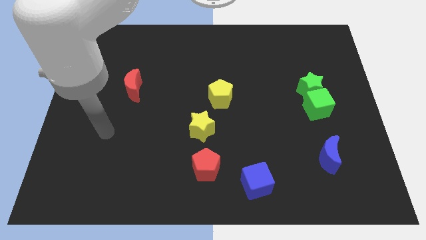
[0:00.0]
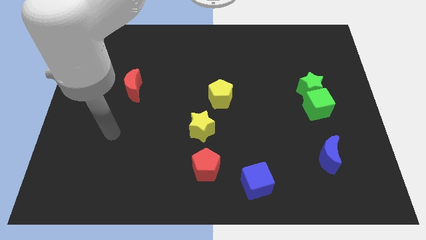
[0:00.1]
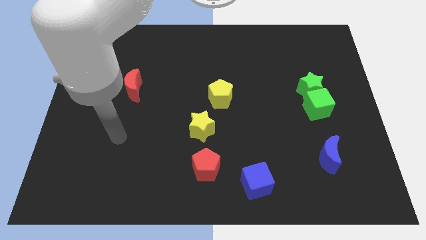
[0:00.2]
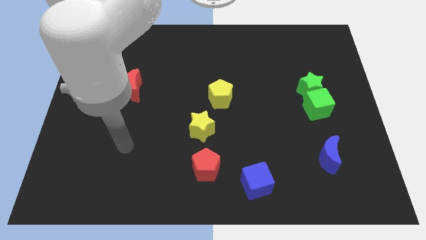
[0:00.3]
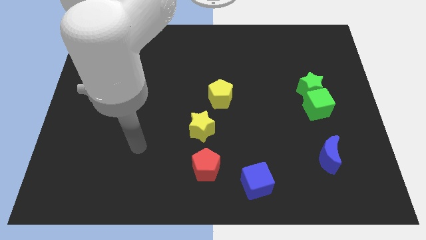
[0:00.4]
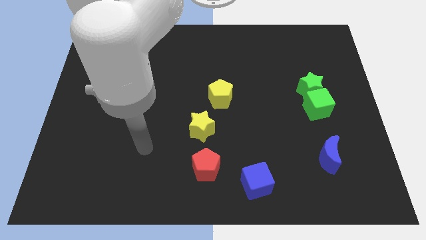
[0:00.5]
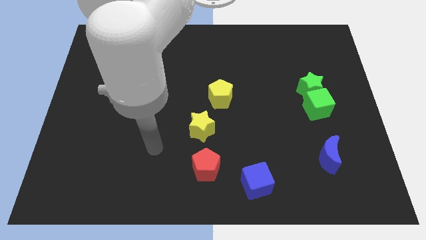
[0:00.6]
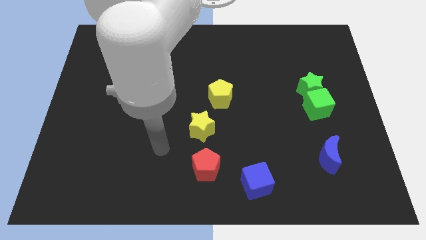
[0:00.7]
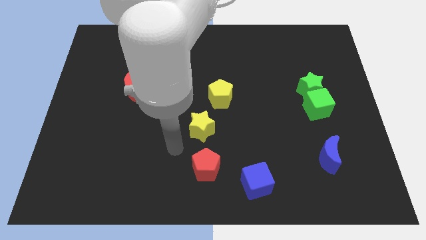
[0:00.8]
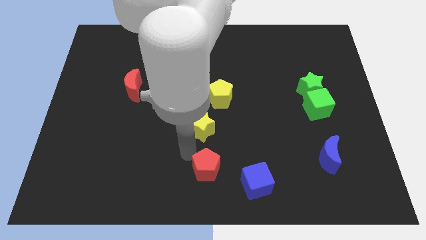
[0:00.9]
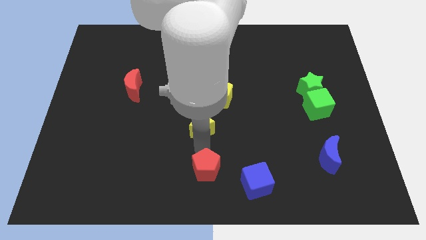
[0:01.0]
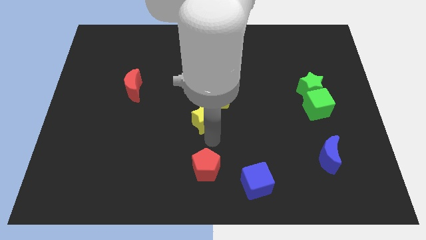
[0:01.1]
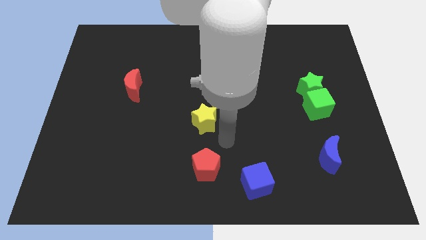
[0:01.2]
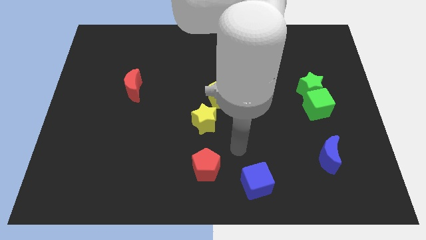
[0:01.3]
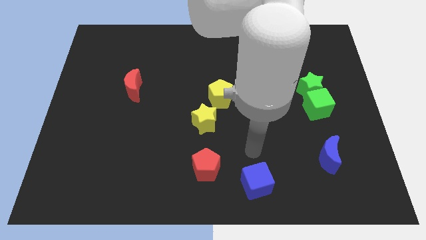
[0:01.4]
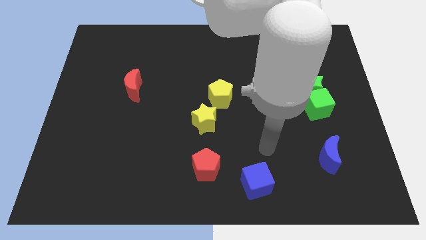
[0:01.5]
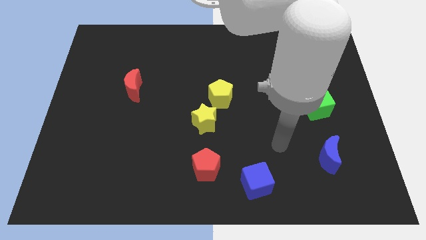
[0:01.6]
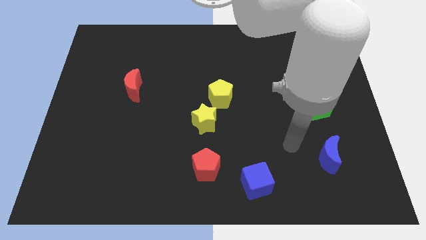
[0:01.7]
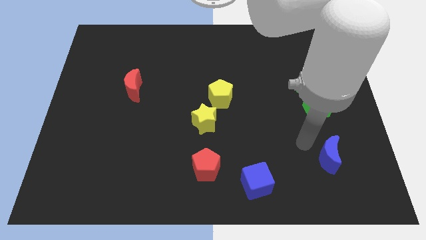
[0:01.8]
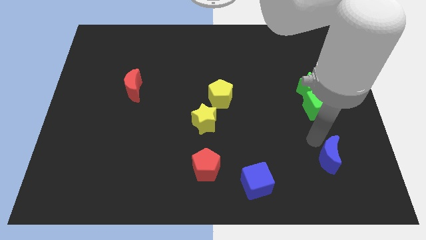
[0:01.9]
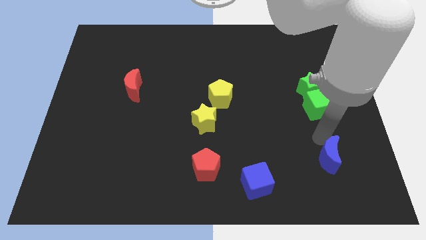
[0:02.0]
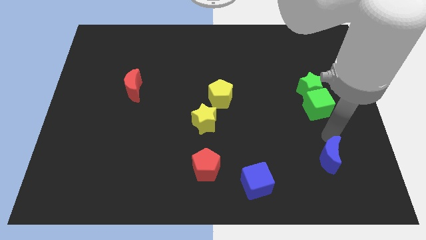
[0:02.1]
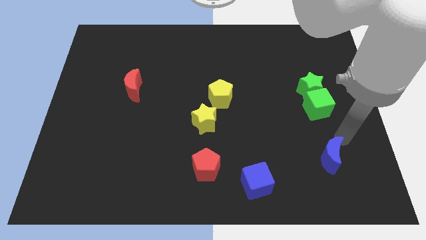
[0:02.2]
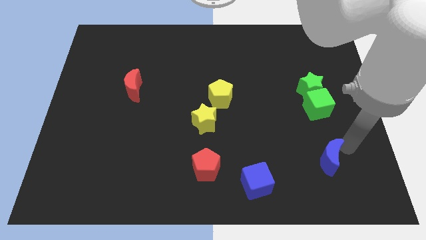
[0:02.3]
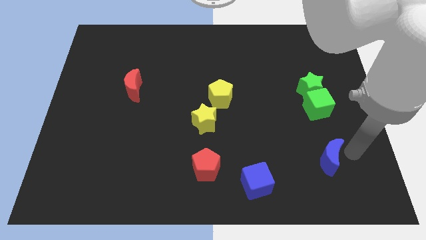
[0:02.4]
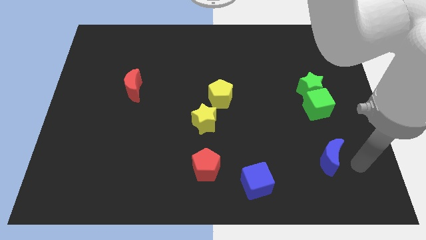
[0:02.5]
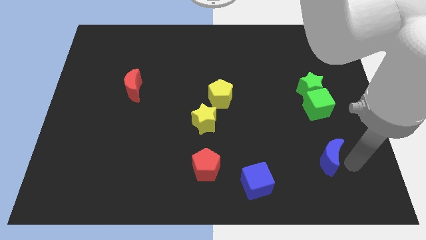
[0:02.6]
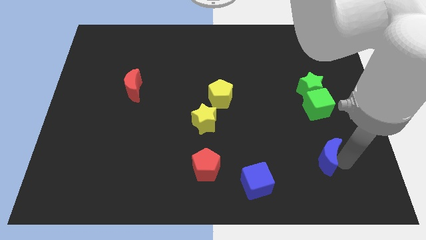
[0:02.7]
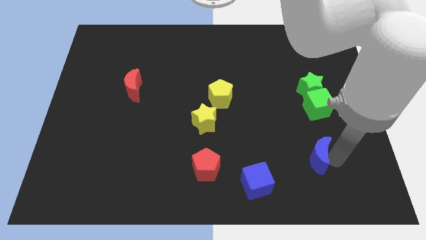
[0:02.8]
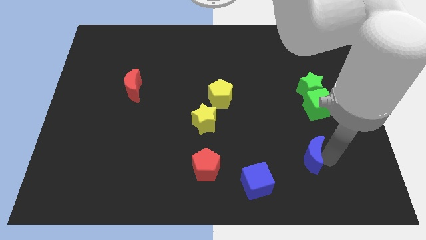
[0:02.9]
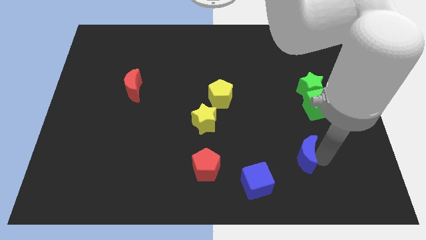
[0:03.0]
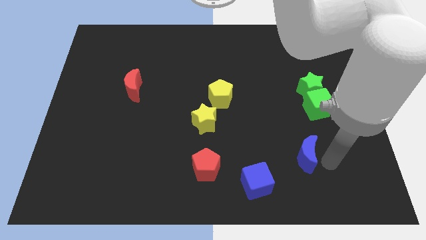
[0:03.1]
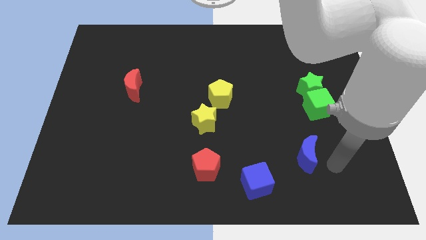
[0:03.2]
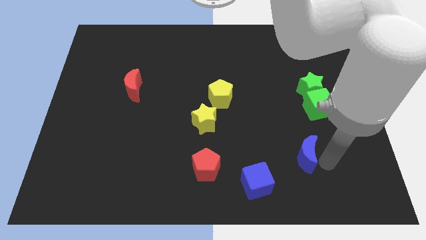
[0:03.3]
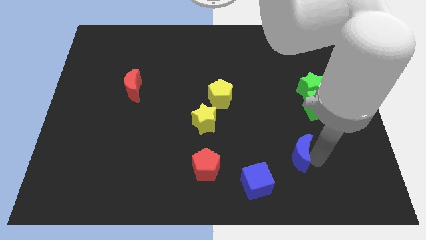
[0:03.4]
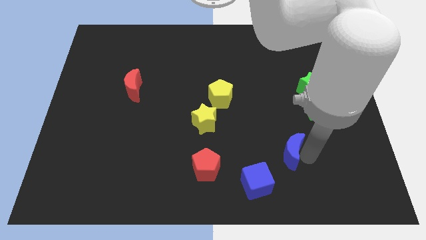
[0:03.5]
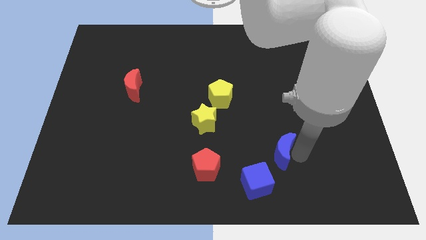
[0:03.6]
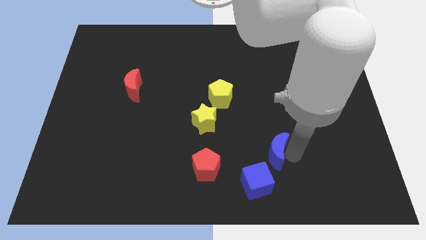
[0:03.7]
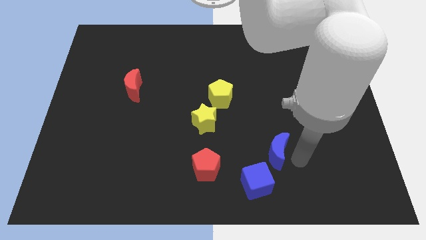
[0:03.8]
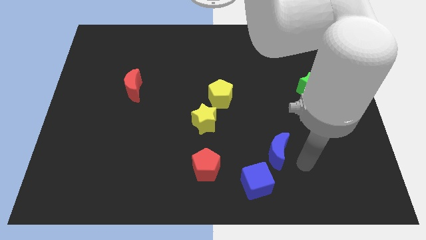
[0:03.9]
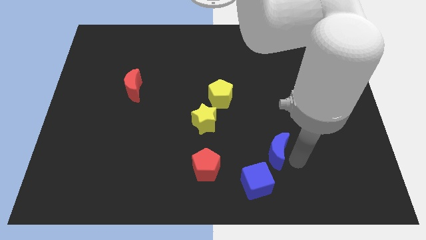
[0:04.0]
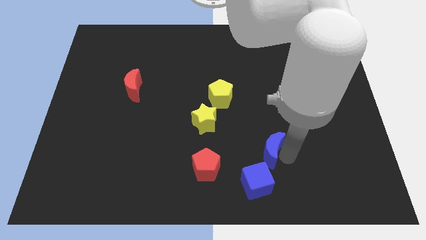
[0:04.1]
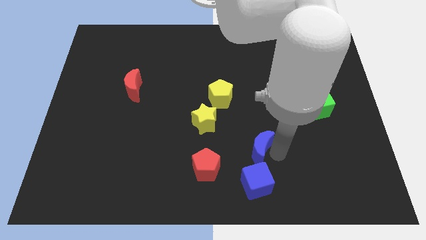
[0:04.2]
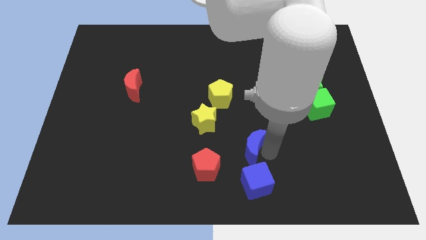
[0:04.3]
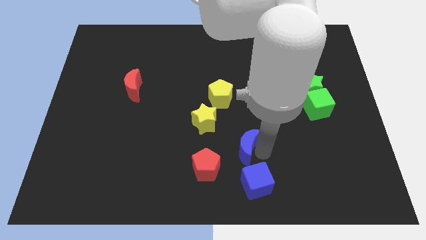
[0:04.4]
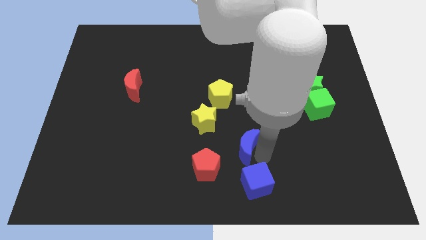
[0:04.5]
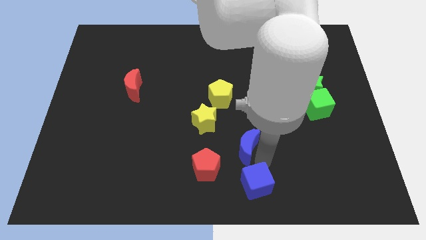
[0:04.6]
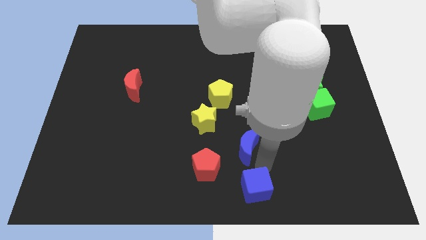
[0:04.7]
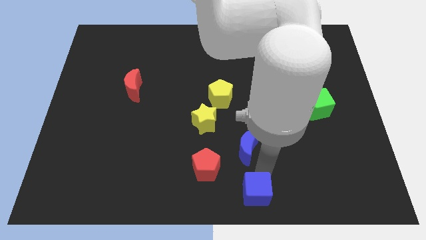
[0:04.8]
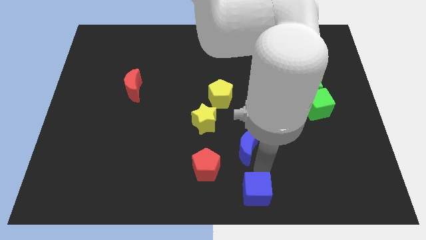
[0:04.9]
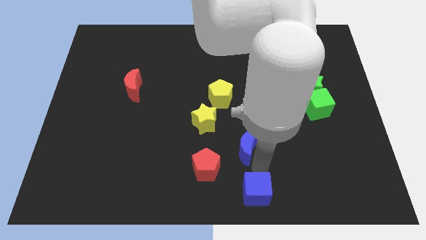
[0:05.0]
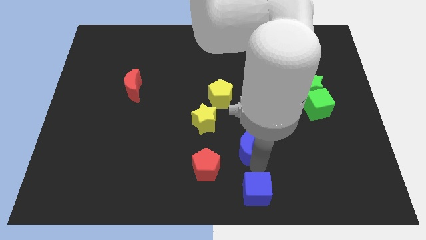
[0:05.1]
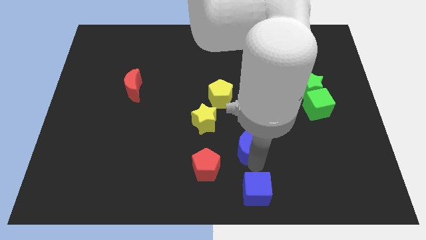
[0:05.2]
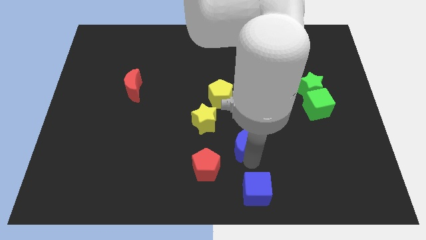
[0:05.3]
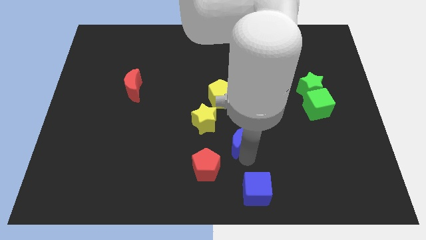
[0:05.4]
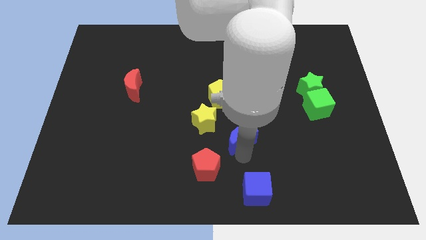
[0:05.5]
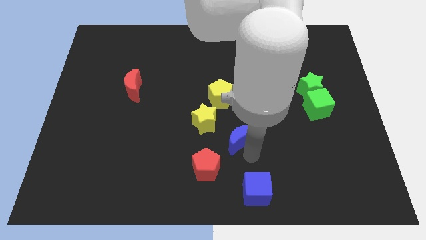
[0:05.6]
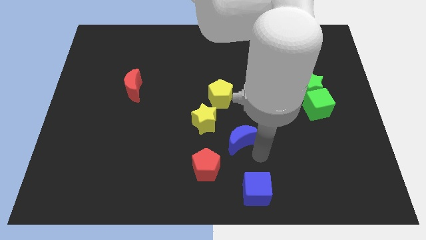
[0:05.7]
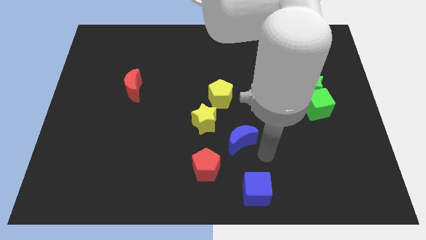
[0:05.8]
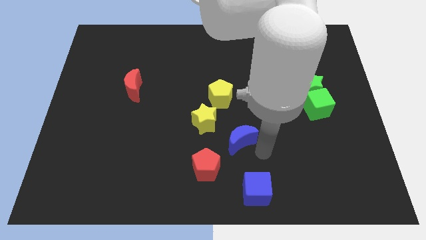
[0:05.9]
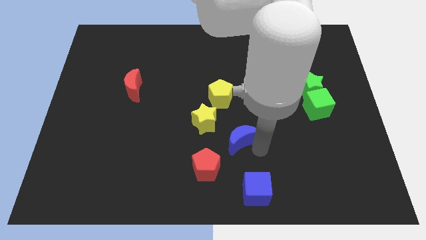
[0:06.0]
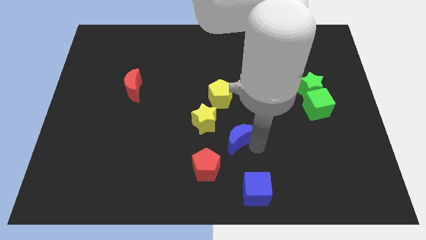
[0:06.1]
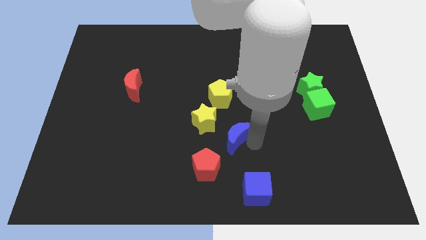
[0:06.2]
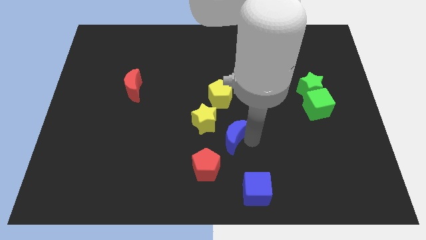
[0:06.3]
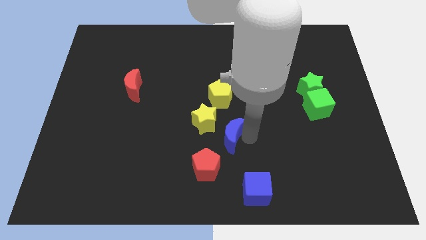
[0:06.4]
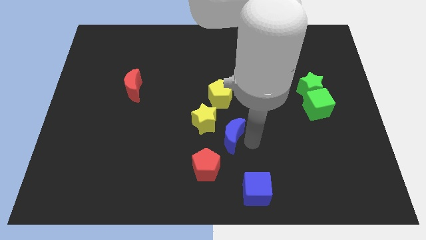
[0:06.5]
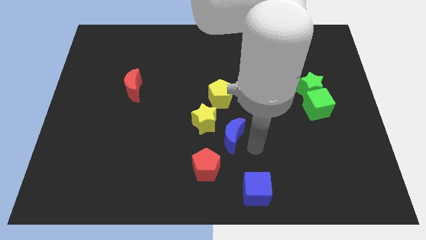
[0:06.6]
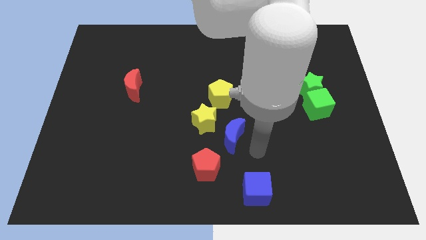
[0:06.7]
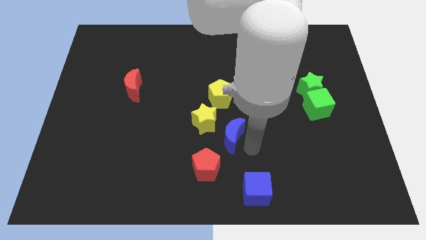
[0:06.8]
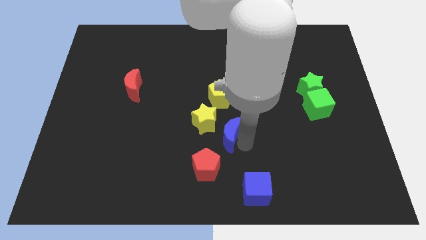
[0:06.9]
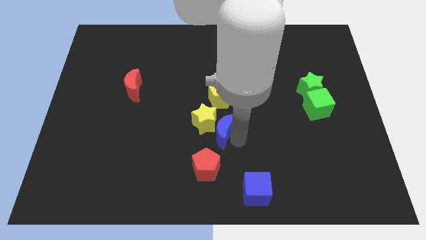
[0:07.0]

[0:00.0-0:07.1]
put the blue moon close to the yellow star
